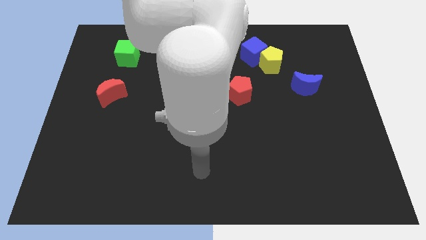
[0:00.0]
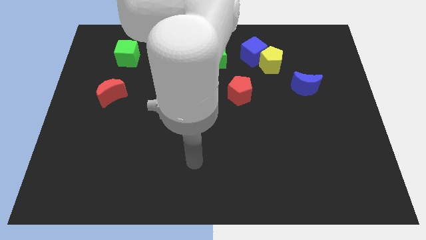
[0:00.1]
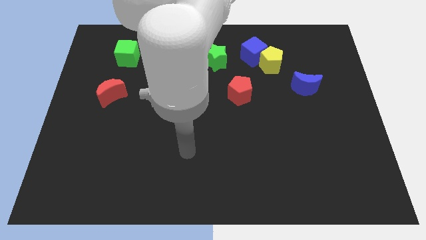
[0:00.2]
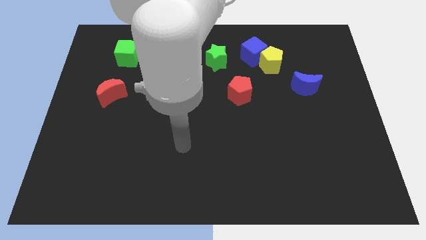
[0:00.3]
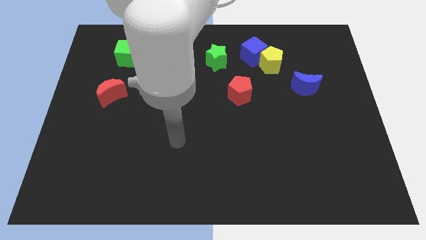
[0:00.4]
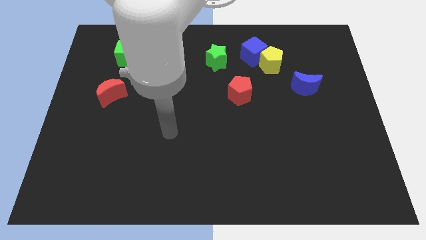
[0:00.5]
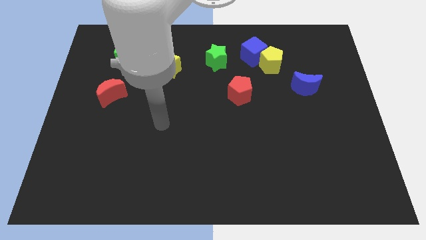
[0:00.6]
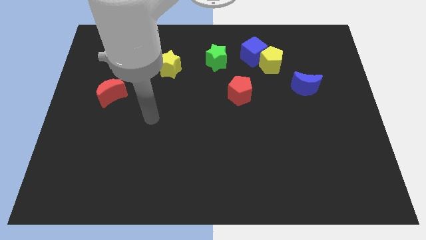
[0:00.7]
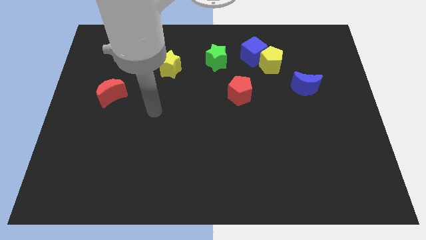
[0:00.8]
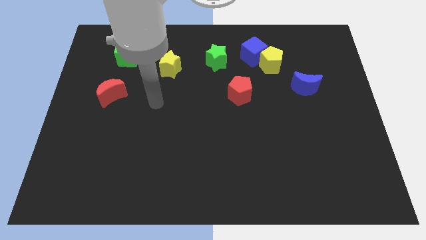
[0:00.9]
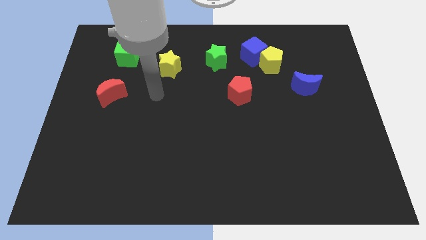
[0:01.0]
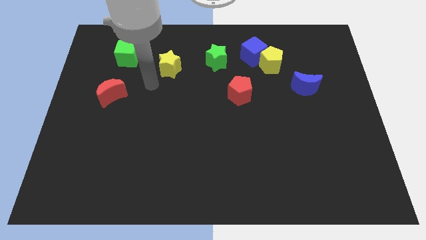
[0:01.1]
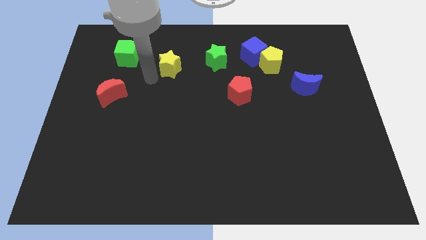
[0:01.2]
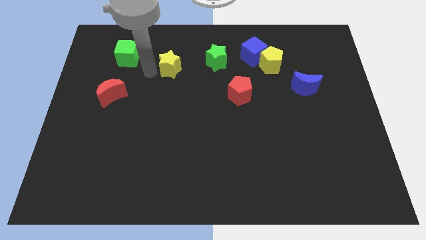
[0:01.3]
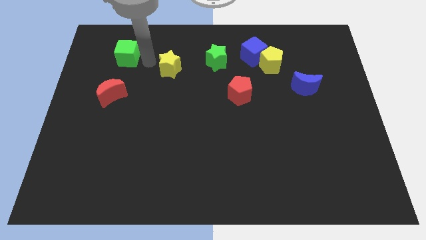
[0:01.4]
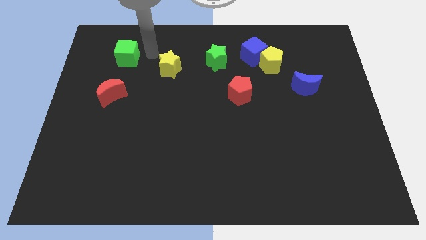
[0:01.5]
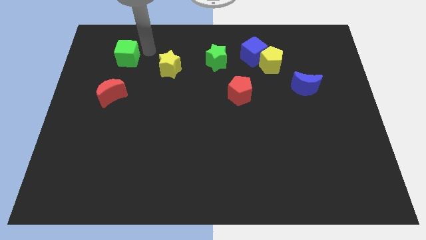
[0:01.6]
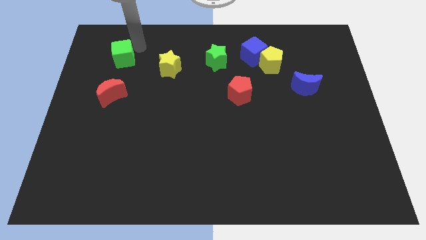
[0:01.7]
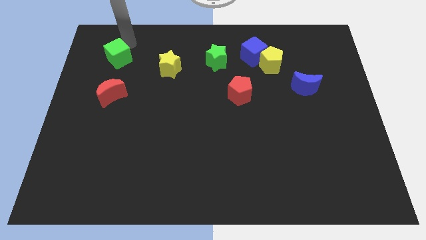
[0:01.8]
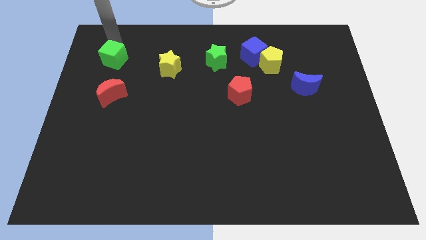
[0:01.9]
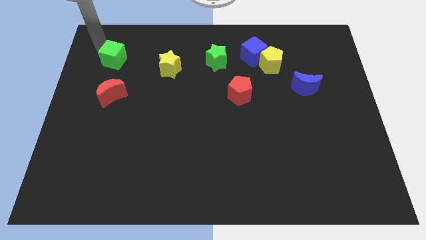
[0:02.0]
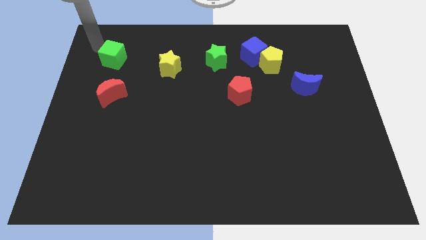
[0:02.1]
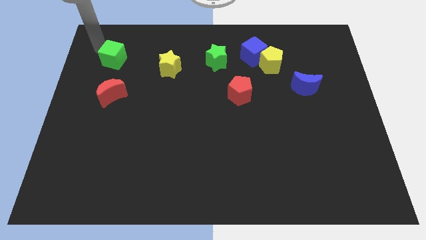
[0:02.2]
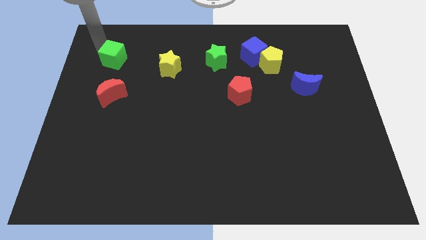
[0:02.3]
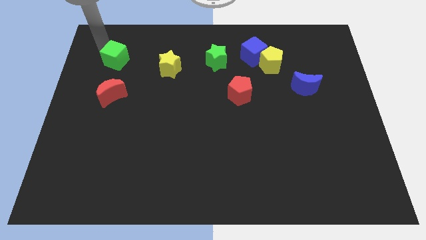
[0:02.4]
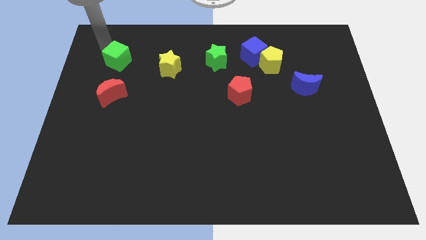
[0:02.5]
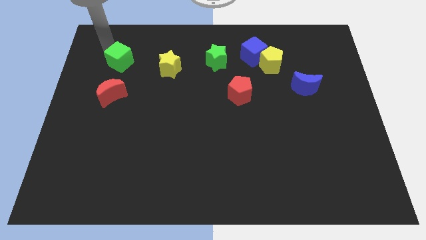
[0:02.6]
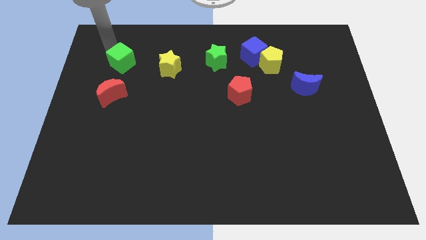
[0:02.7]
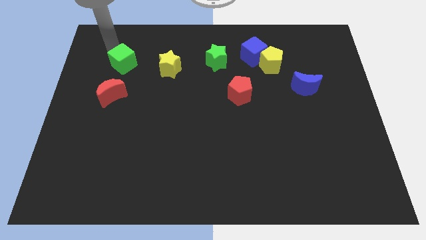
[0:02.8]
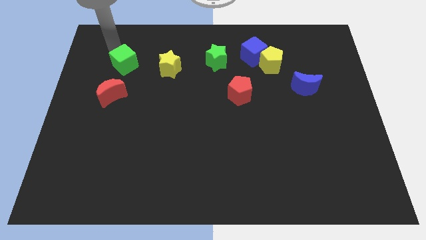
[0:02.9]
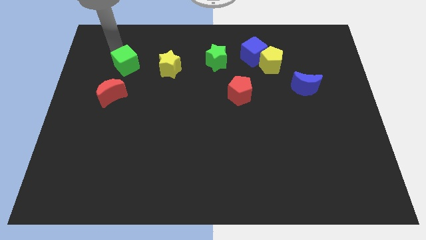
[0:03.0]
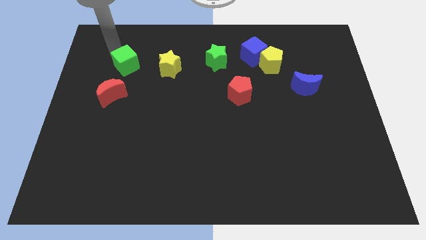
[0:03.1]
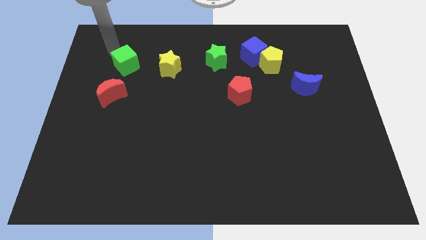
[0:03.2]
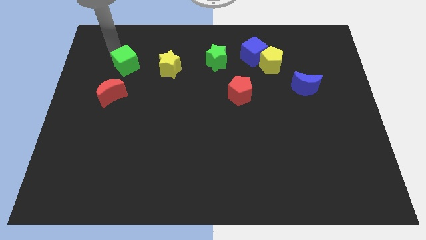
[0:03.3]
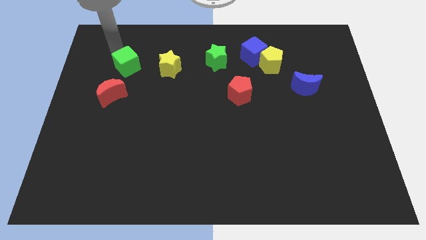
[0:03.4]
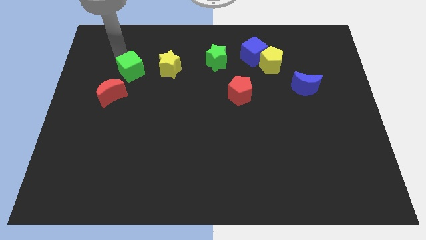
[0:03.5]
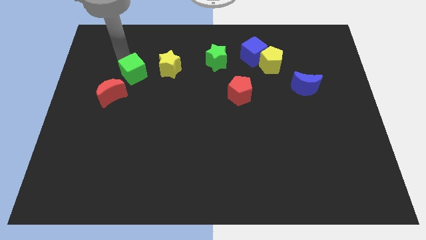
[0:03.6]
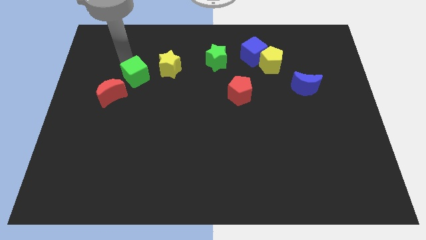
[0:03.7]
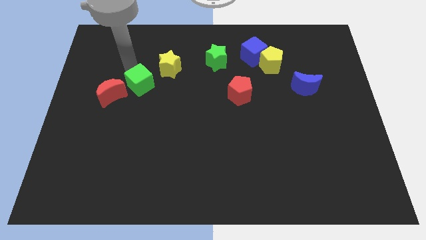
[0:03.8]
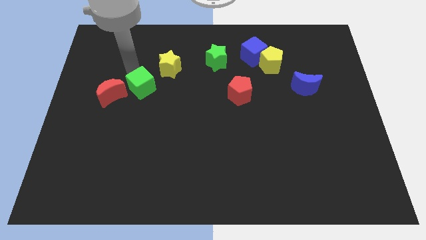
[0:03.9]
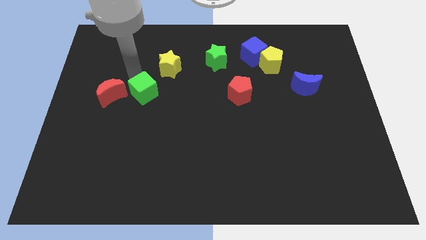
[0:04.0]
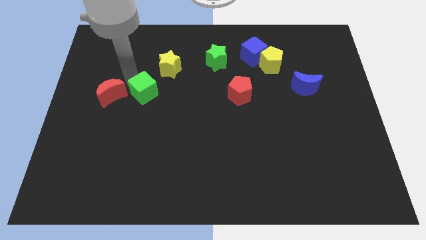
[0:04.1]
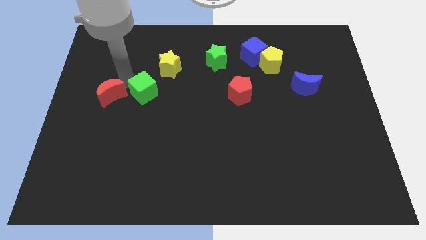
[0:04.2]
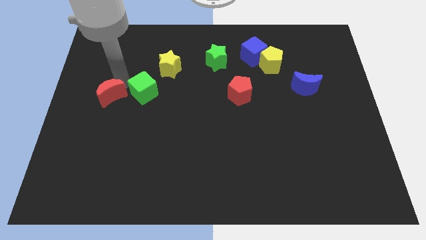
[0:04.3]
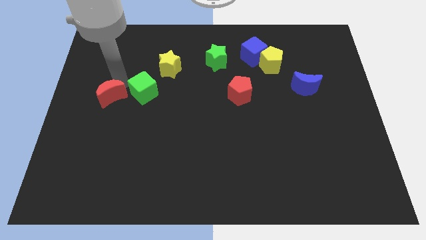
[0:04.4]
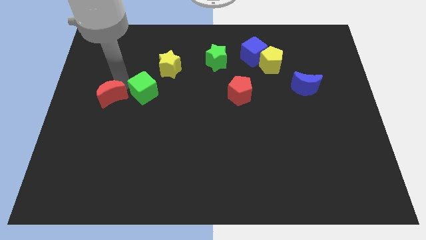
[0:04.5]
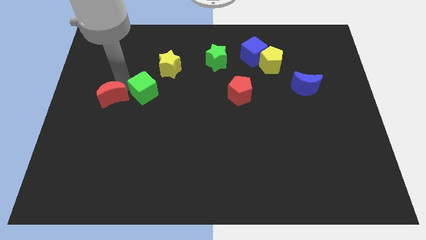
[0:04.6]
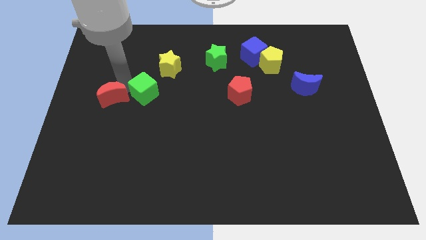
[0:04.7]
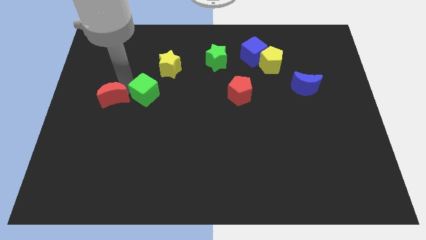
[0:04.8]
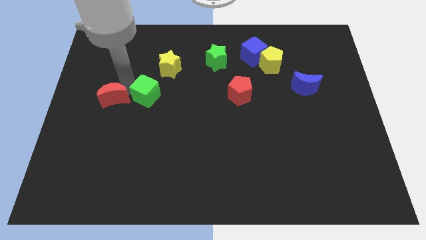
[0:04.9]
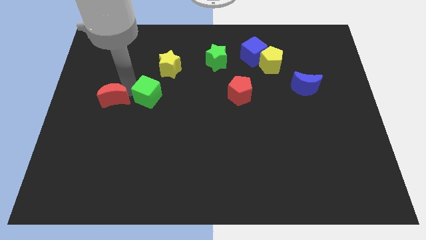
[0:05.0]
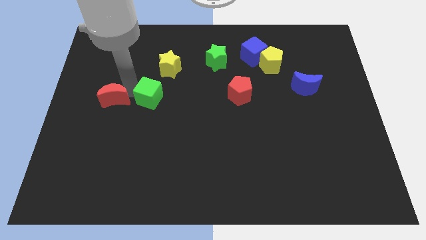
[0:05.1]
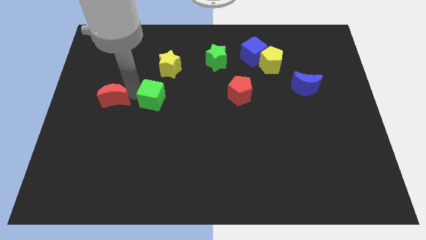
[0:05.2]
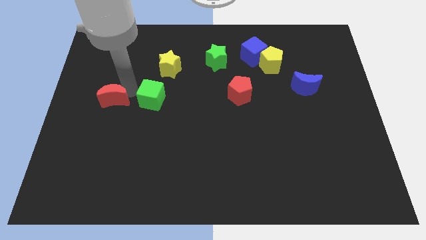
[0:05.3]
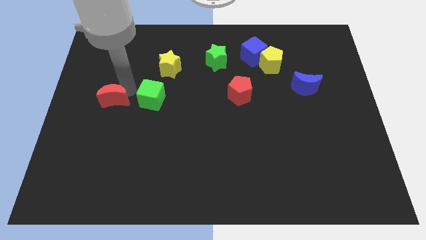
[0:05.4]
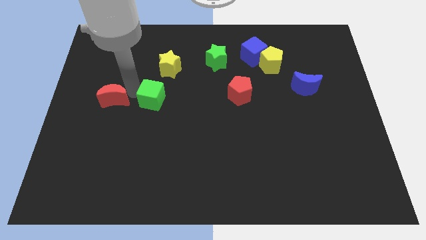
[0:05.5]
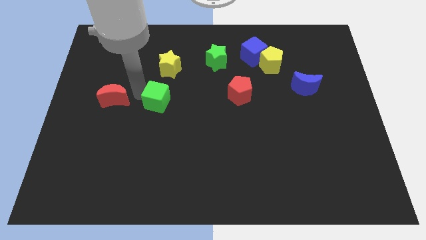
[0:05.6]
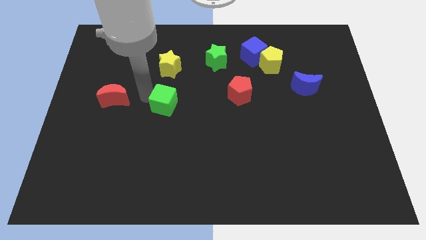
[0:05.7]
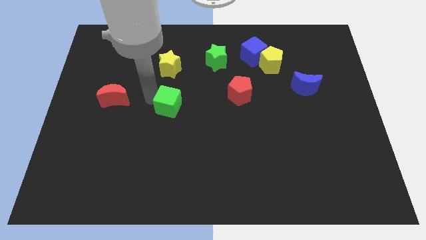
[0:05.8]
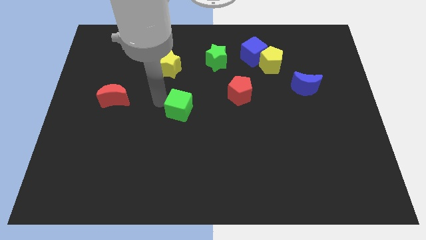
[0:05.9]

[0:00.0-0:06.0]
slide the green cube down and then to the right

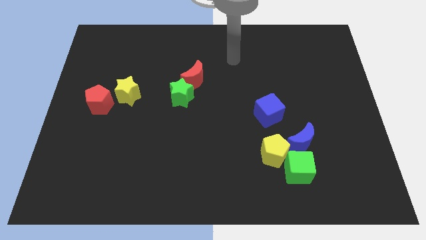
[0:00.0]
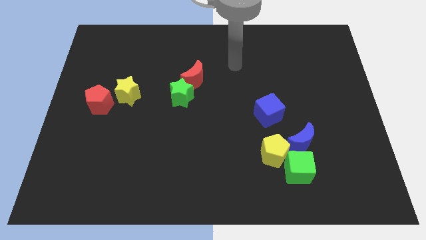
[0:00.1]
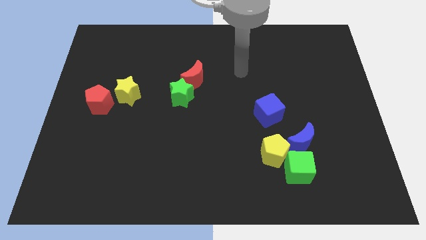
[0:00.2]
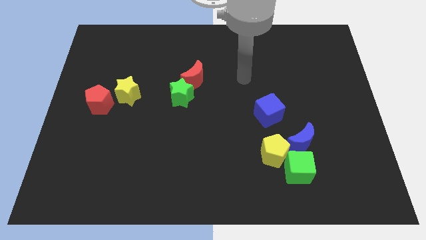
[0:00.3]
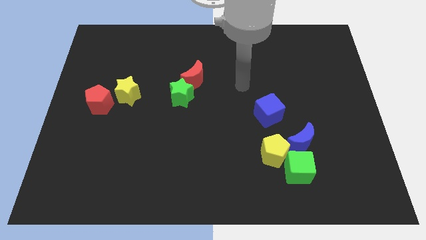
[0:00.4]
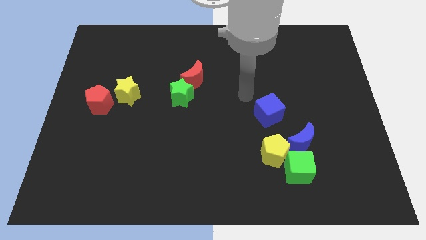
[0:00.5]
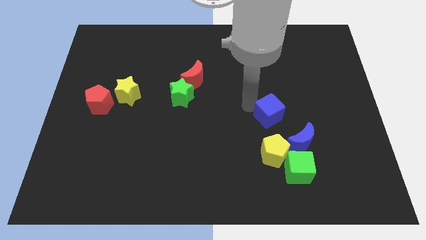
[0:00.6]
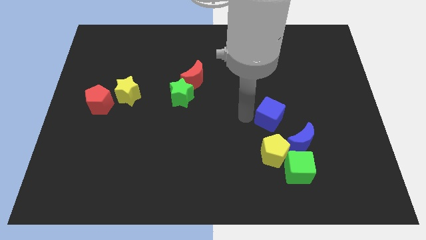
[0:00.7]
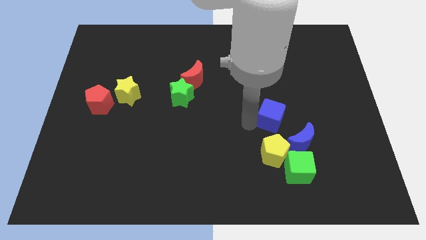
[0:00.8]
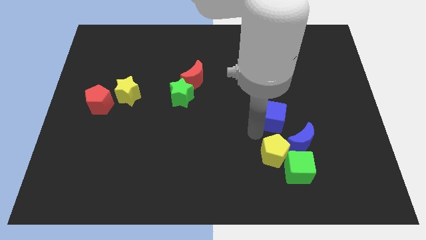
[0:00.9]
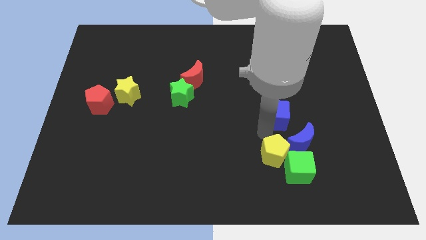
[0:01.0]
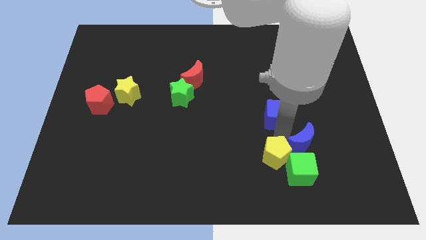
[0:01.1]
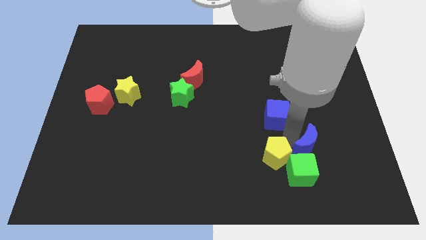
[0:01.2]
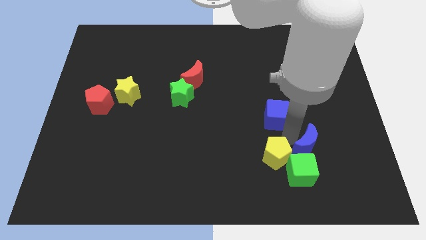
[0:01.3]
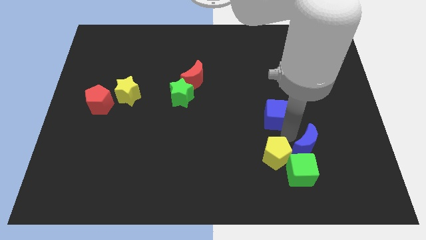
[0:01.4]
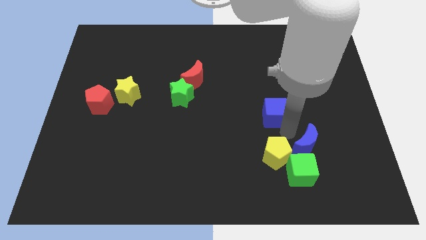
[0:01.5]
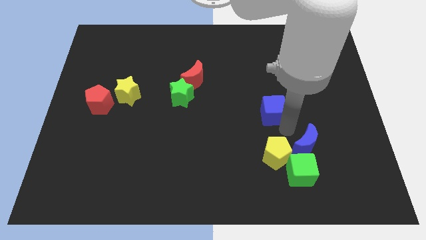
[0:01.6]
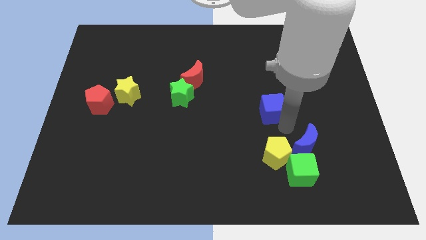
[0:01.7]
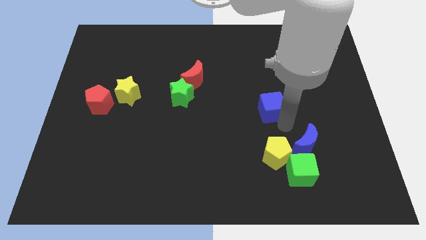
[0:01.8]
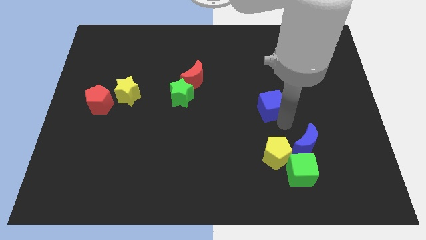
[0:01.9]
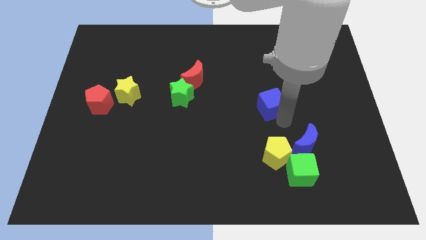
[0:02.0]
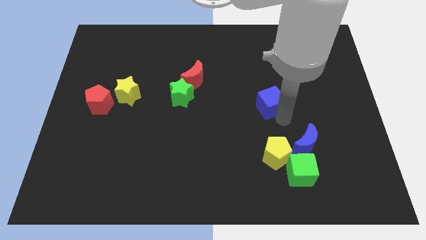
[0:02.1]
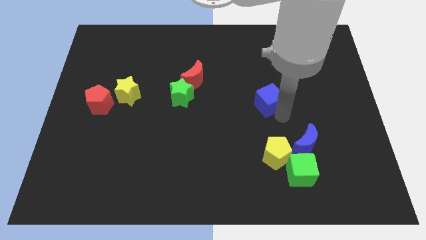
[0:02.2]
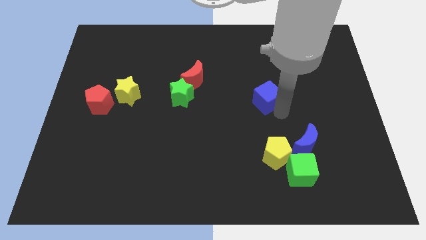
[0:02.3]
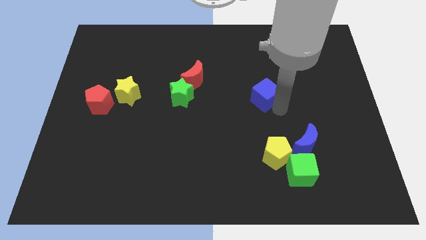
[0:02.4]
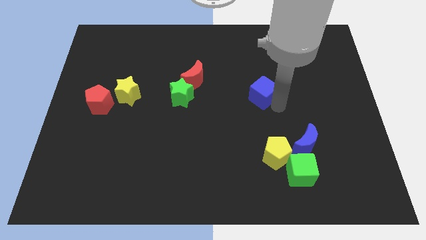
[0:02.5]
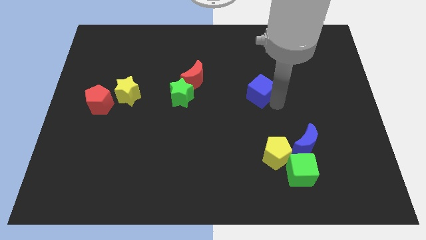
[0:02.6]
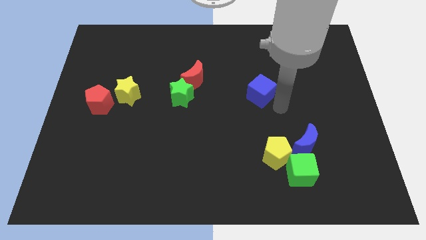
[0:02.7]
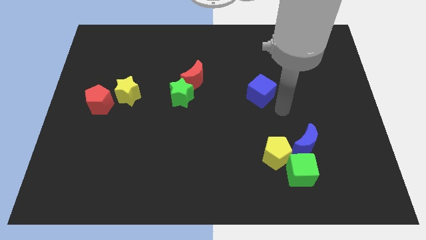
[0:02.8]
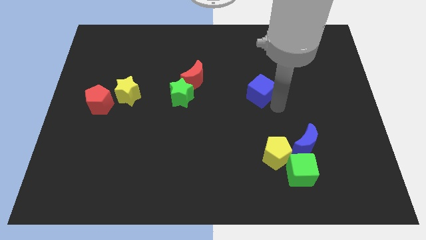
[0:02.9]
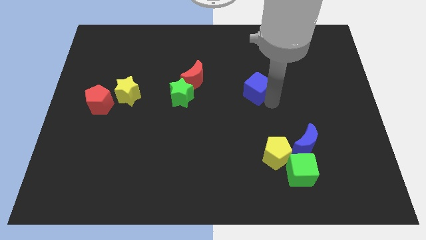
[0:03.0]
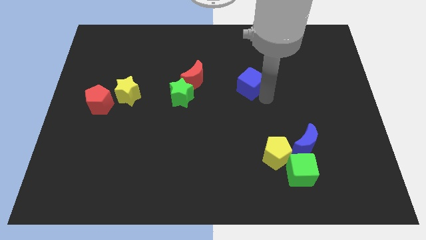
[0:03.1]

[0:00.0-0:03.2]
slightly push the blue cube up and to the left diagonally
